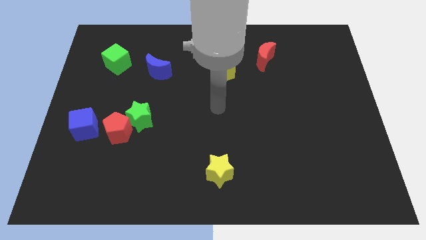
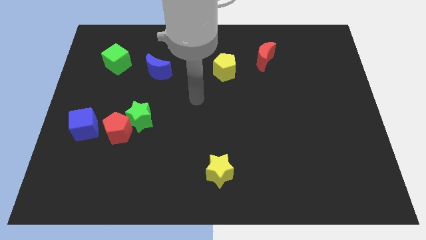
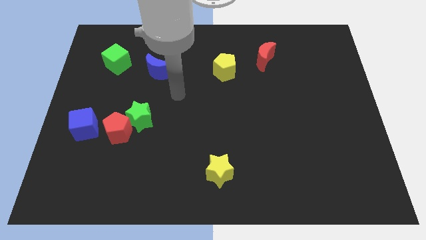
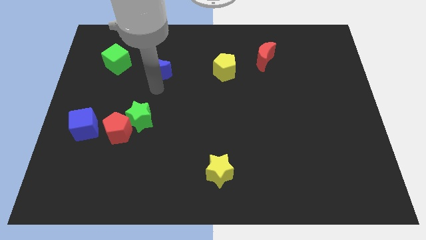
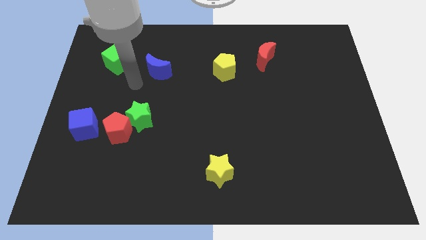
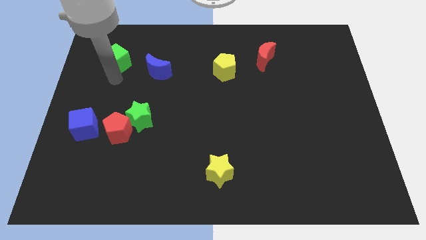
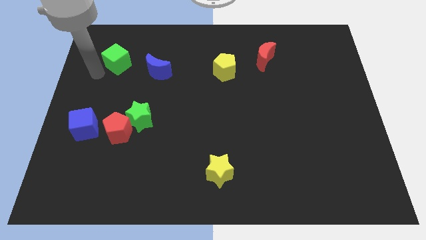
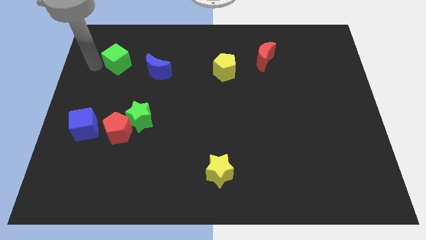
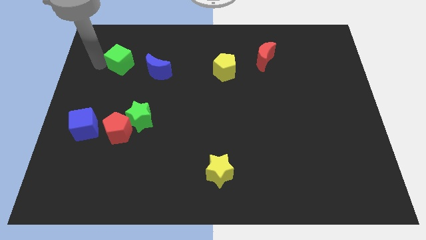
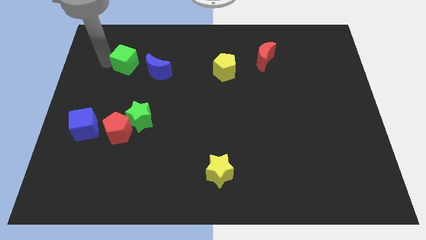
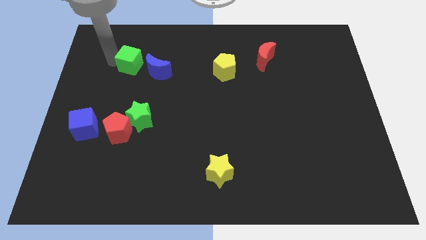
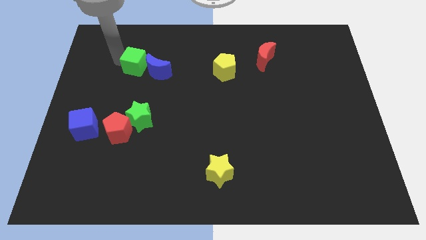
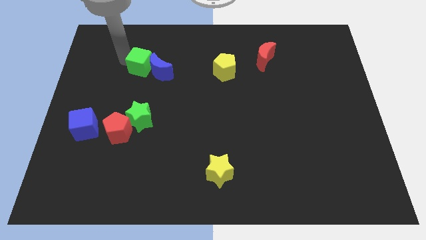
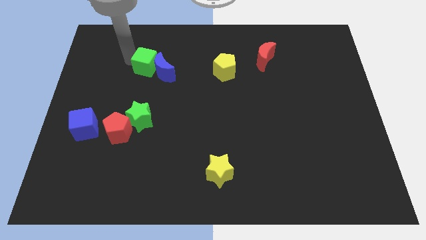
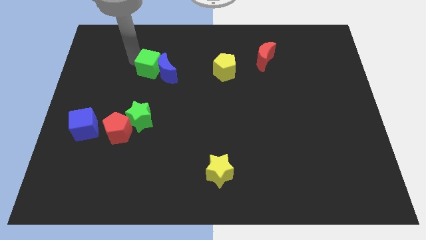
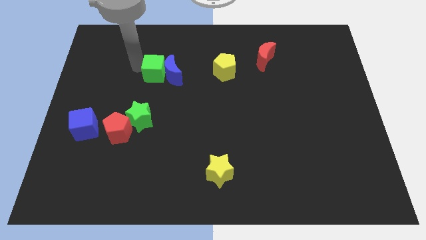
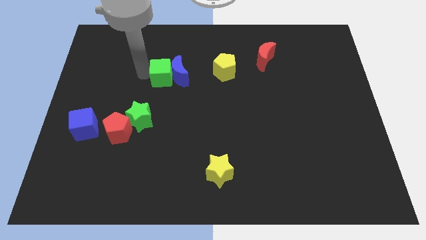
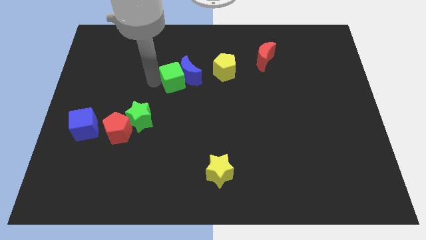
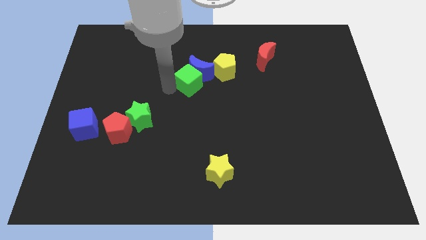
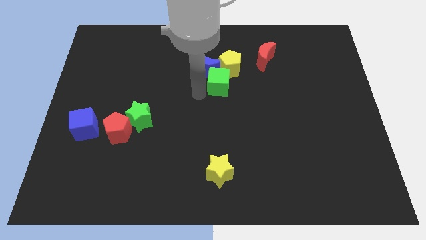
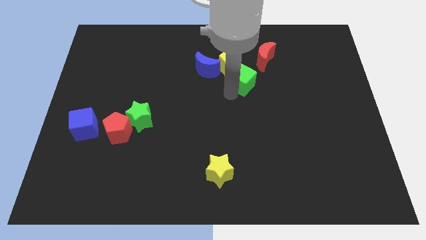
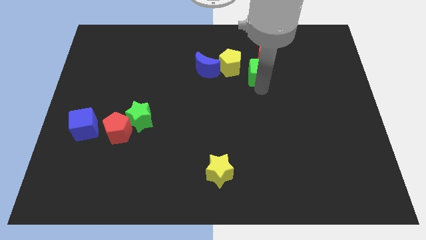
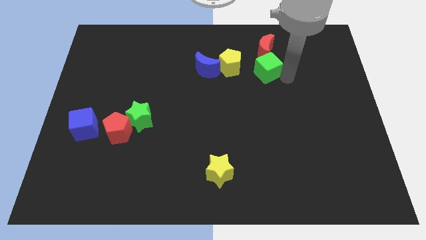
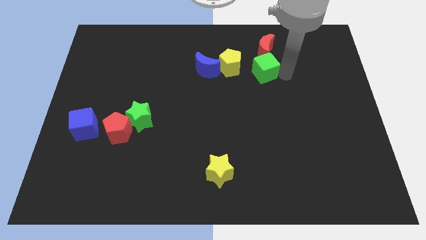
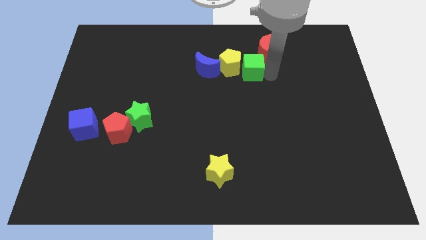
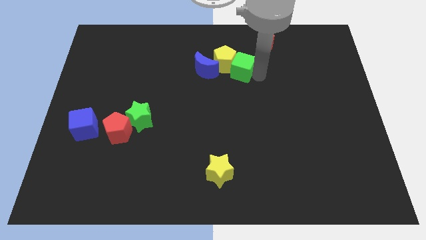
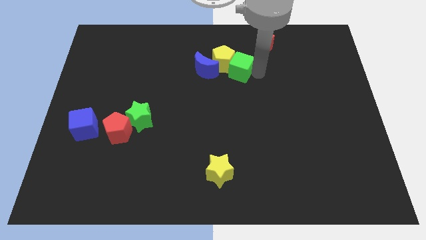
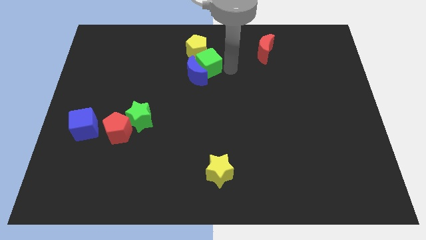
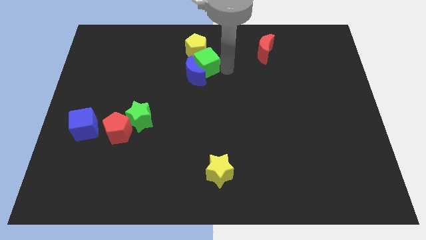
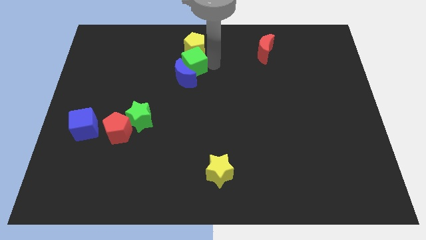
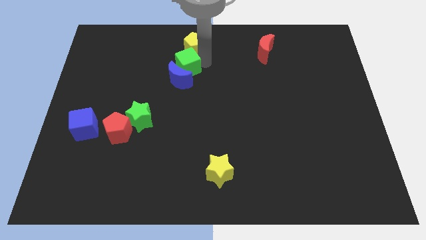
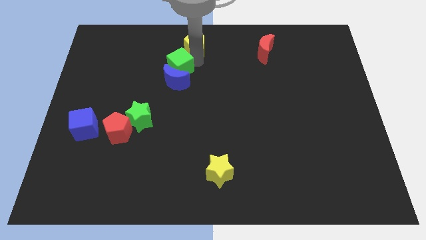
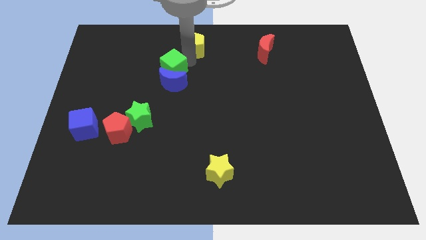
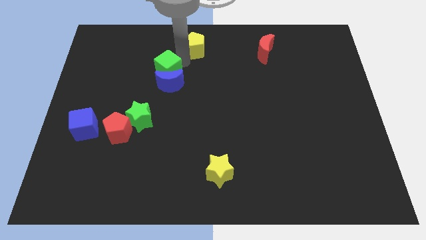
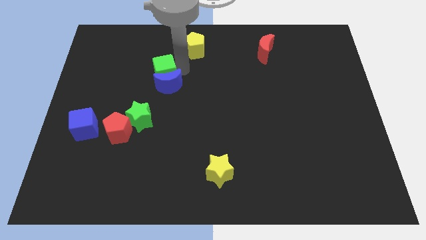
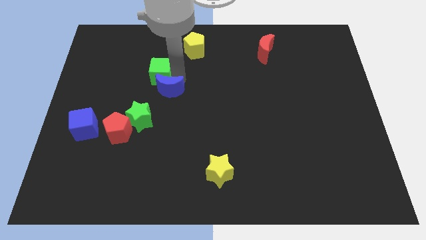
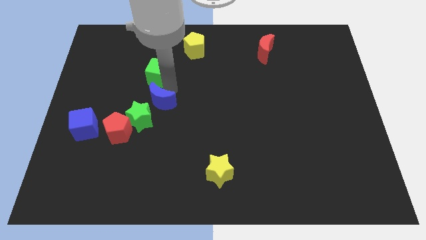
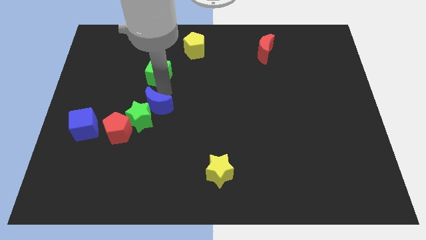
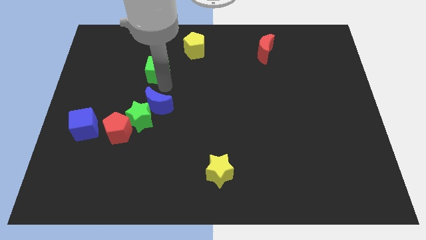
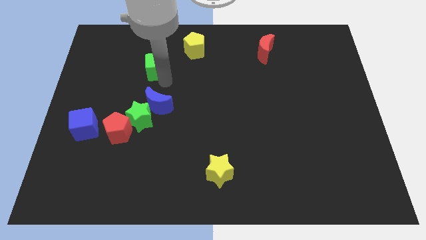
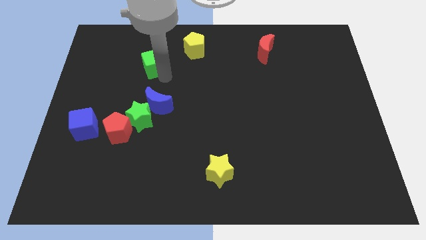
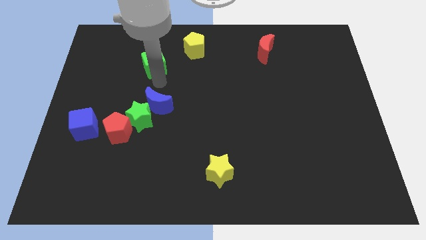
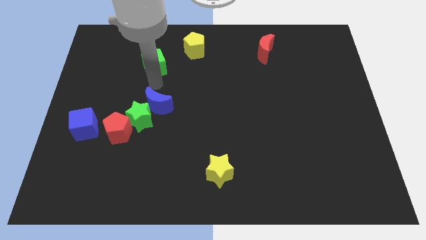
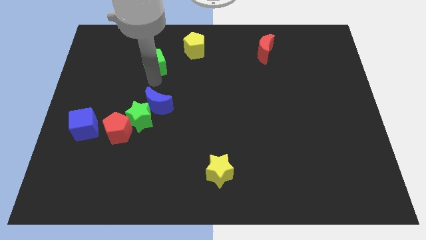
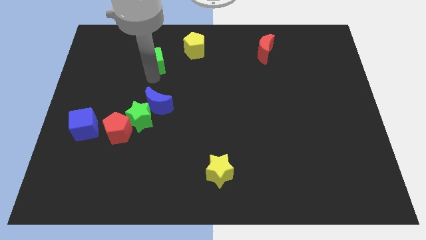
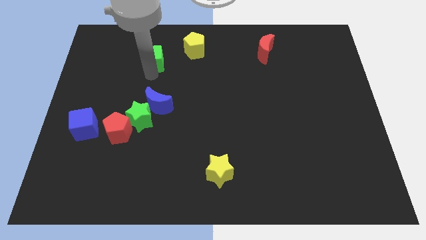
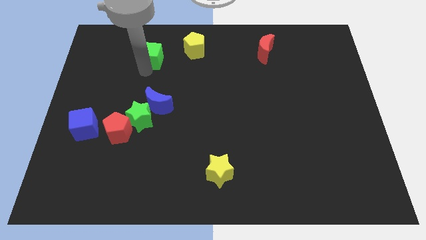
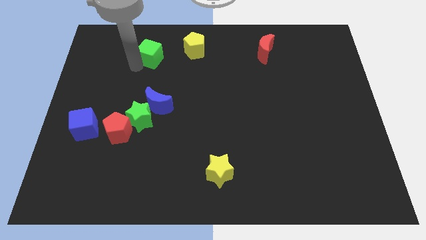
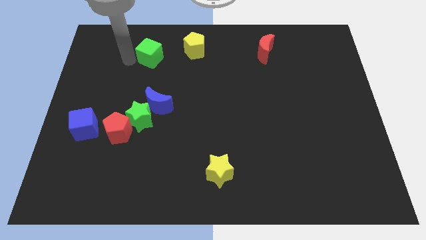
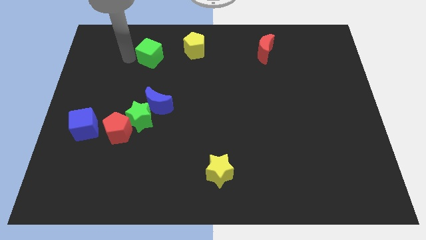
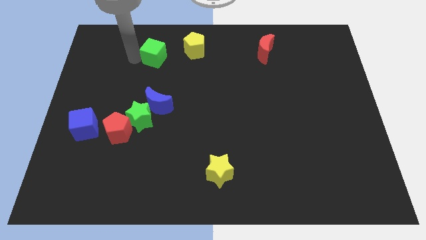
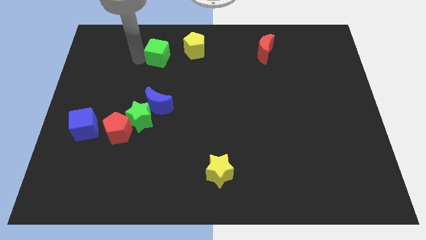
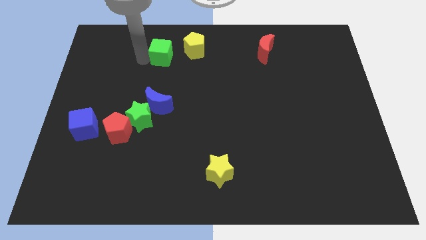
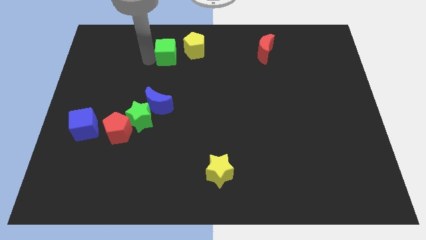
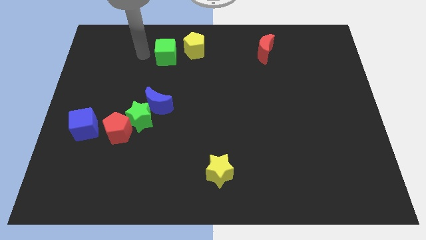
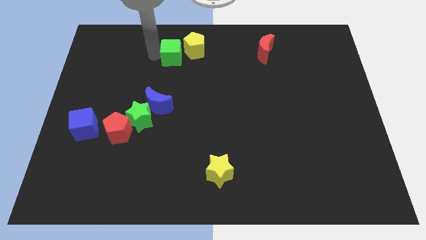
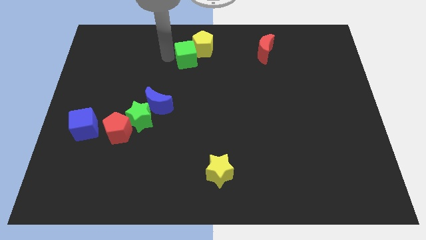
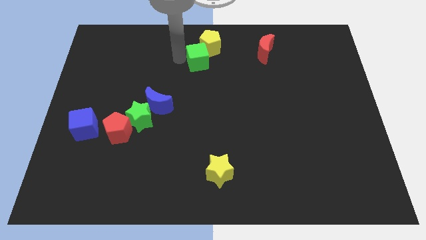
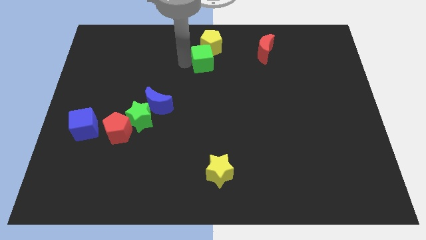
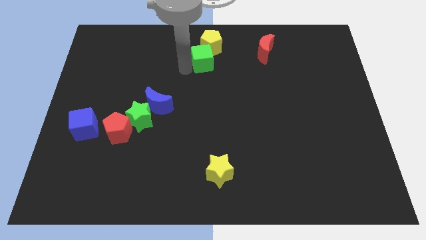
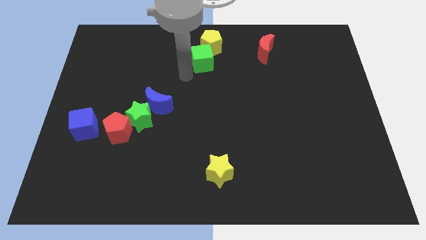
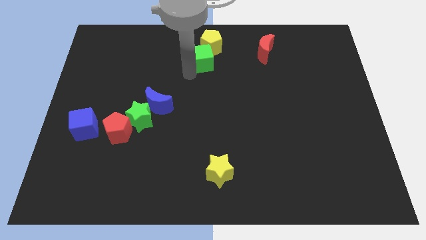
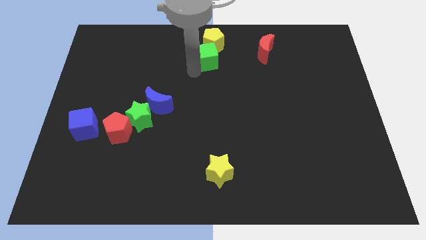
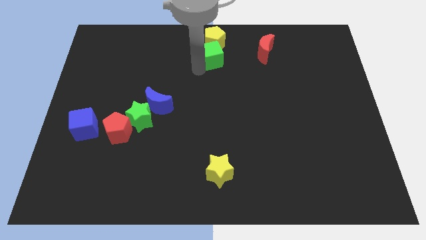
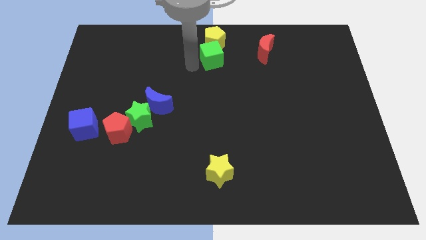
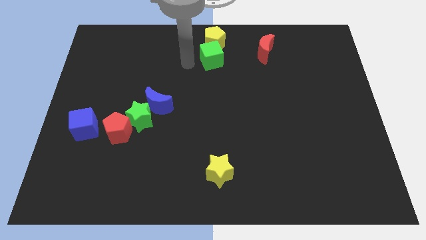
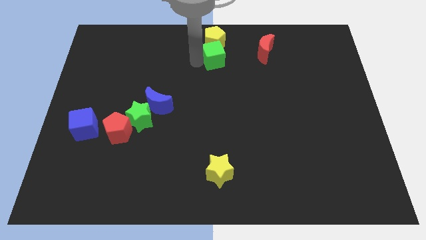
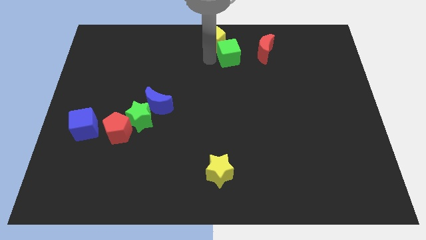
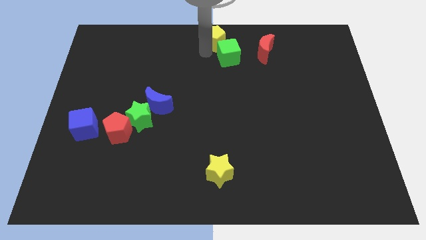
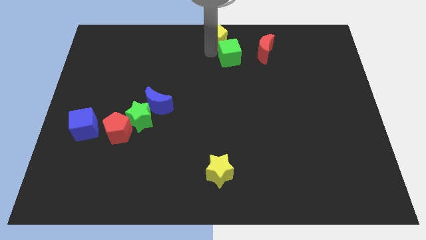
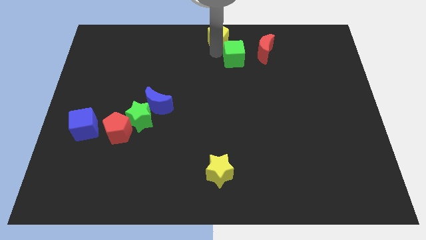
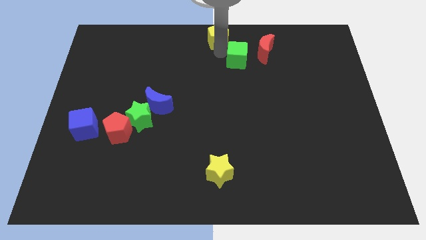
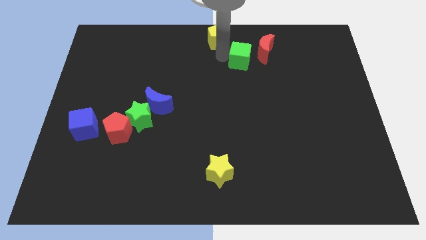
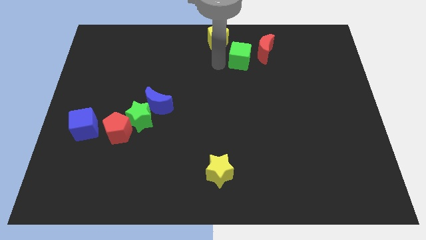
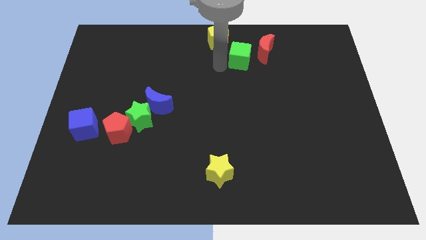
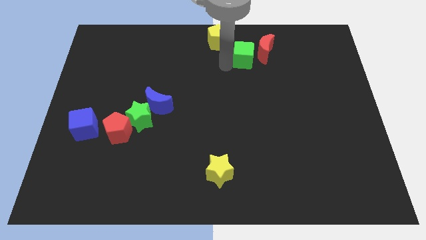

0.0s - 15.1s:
push the green cube next to the red moon
